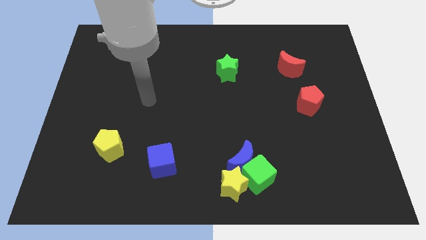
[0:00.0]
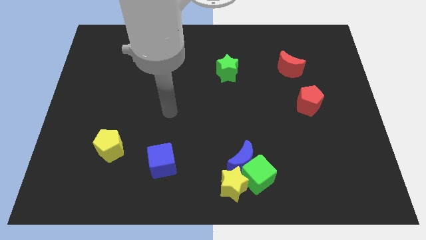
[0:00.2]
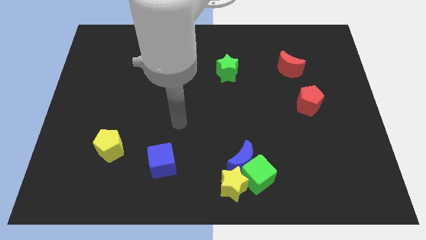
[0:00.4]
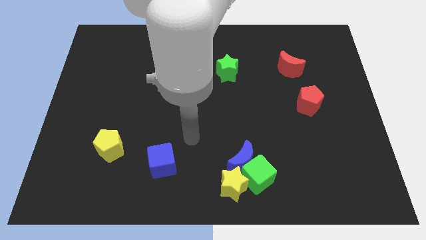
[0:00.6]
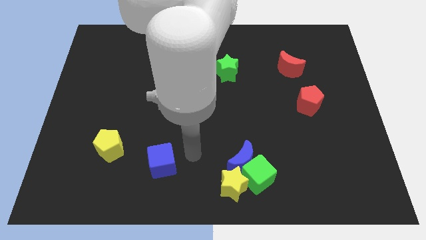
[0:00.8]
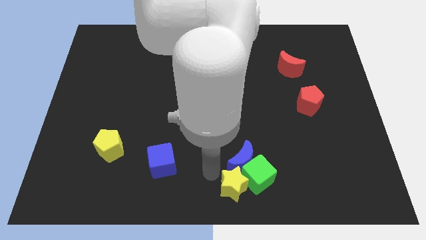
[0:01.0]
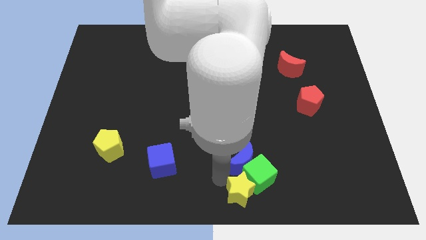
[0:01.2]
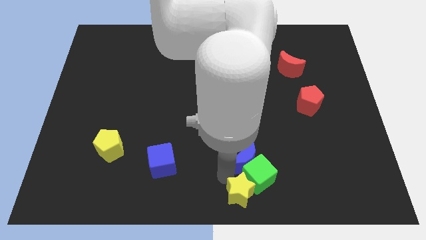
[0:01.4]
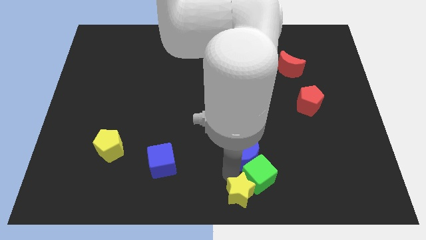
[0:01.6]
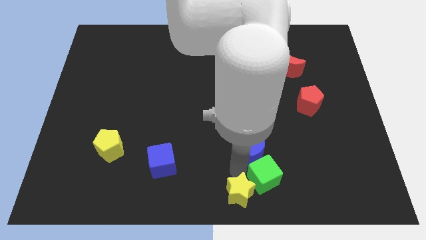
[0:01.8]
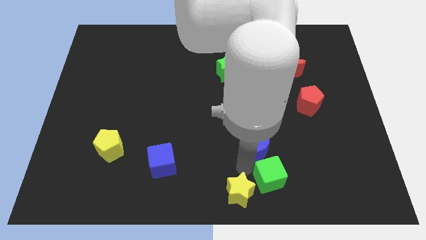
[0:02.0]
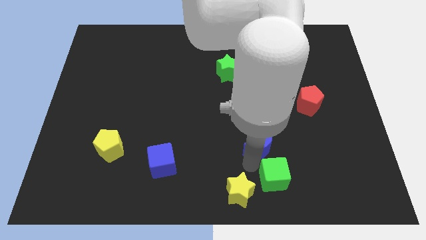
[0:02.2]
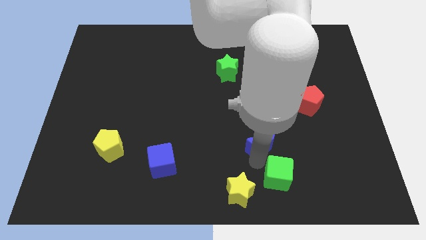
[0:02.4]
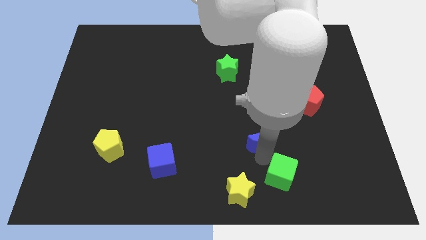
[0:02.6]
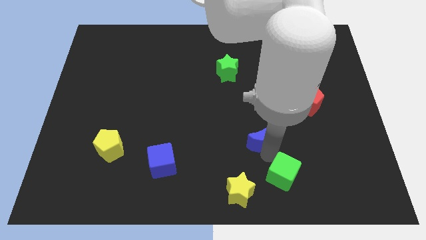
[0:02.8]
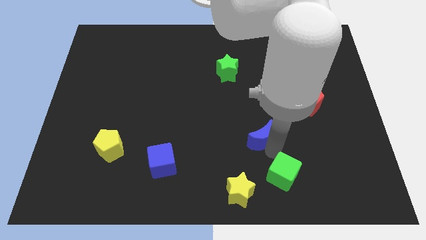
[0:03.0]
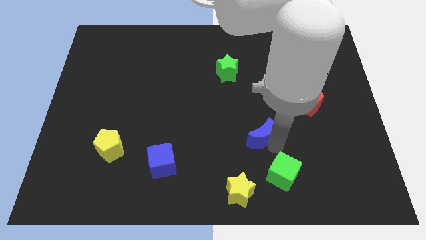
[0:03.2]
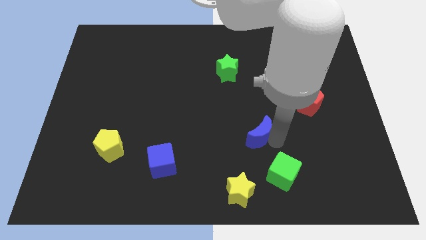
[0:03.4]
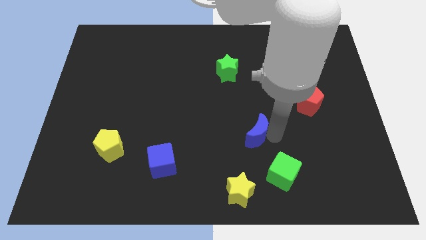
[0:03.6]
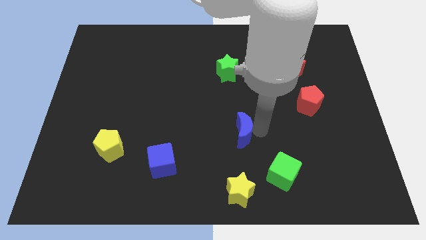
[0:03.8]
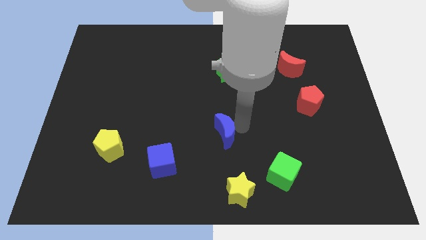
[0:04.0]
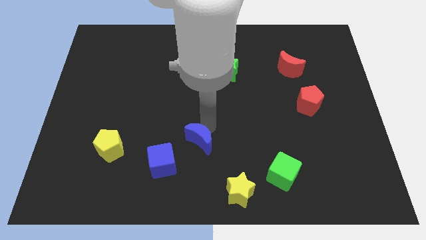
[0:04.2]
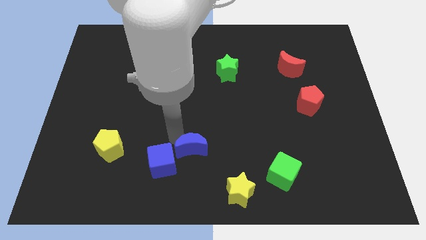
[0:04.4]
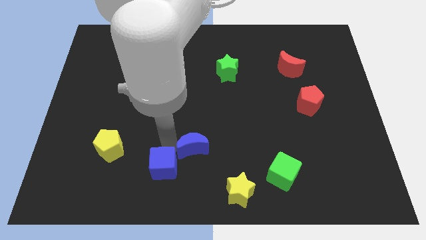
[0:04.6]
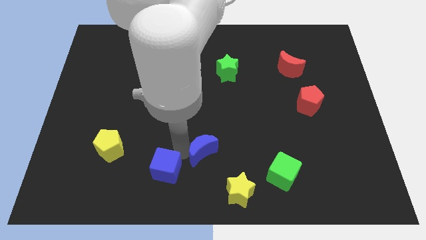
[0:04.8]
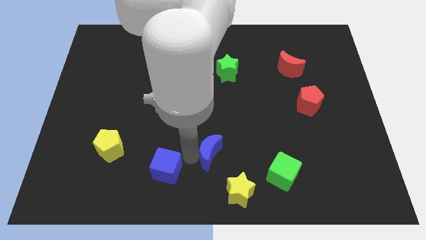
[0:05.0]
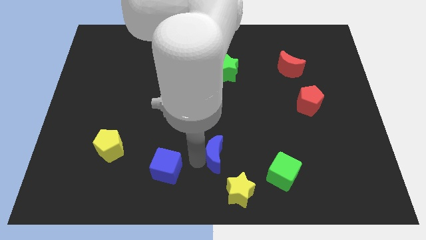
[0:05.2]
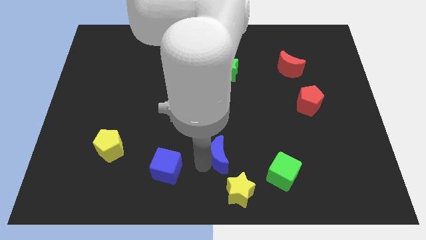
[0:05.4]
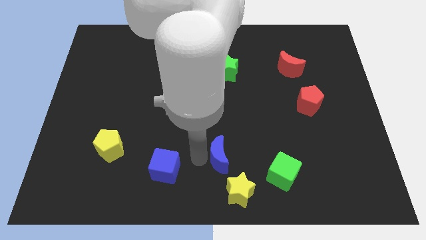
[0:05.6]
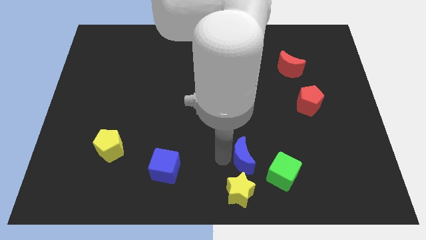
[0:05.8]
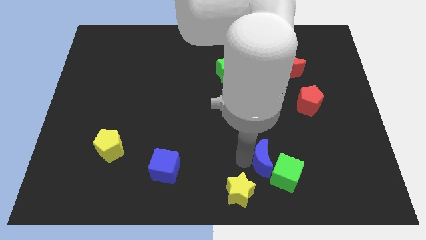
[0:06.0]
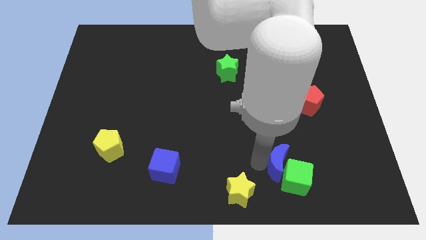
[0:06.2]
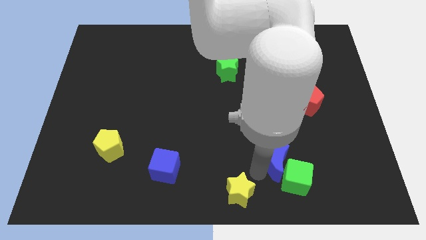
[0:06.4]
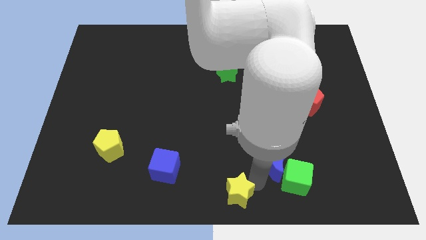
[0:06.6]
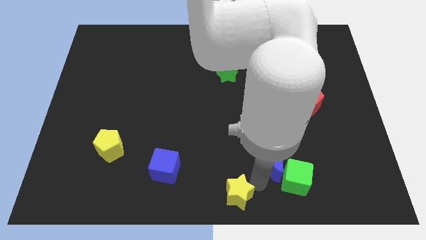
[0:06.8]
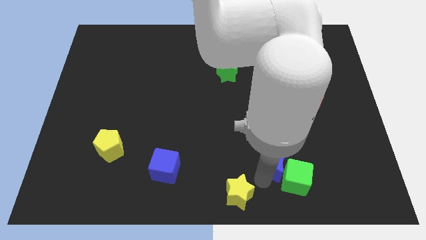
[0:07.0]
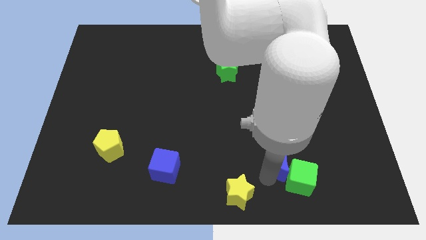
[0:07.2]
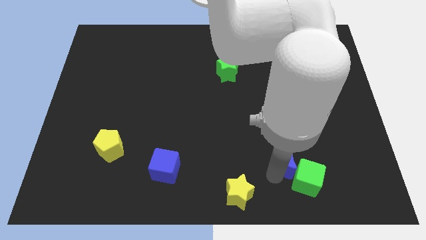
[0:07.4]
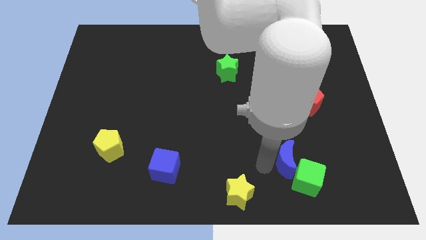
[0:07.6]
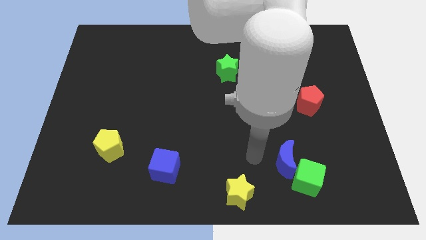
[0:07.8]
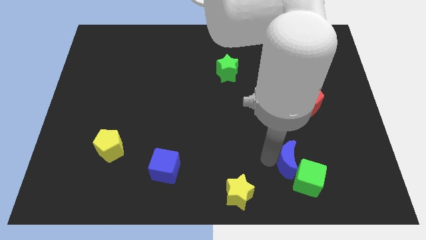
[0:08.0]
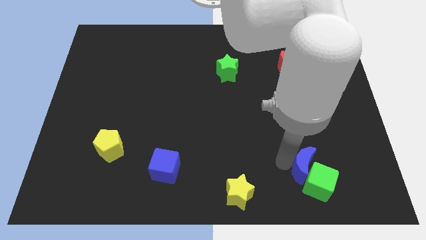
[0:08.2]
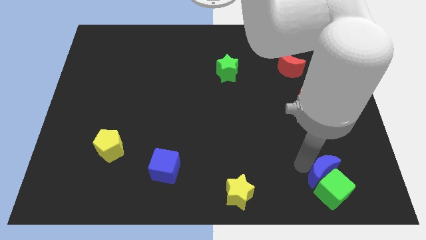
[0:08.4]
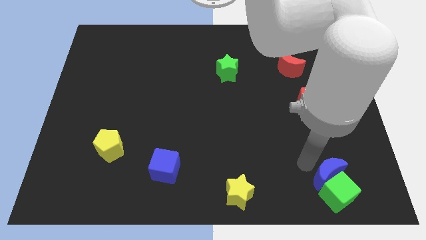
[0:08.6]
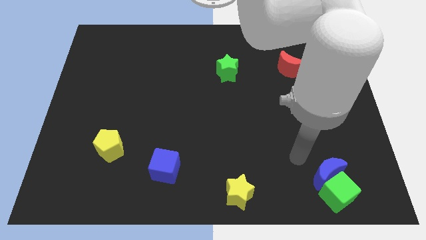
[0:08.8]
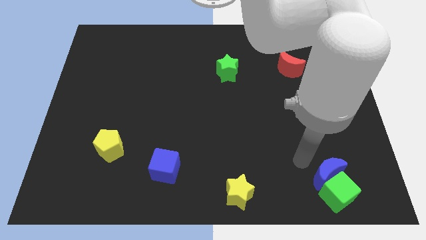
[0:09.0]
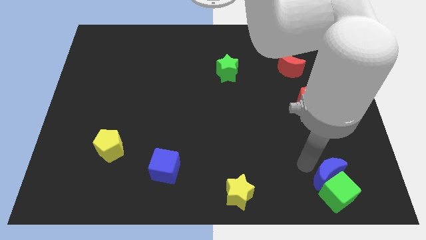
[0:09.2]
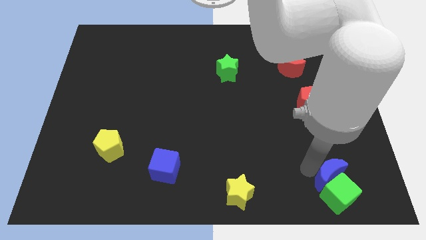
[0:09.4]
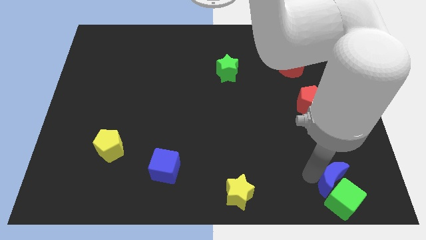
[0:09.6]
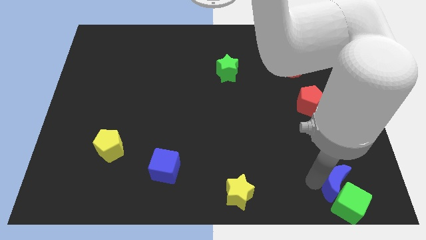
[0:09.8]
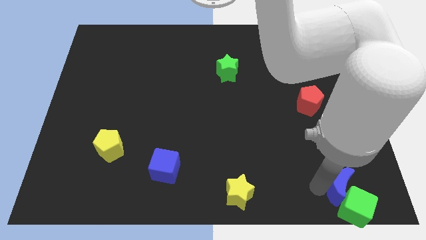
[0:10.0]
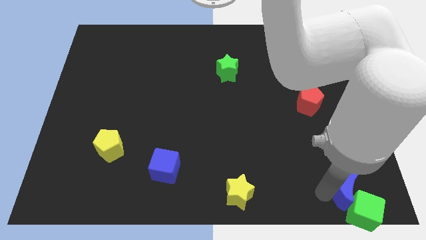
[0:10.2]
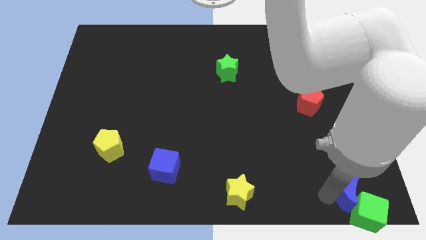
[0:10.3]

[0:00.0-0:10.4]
move the blue moon to the lower right corner

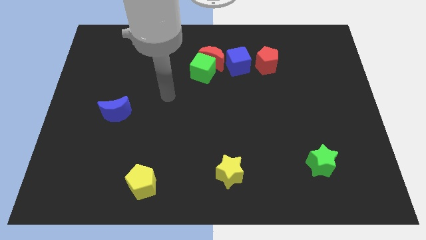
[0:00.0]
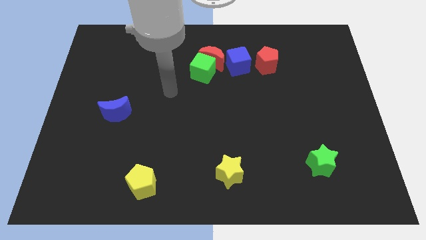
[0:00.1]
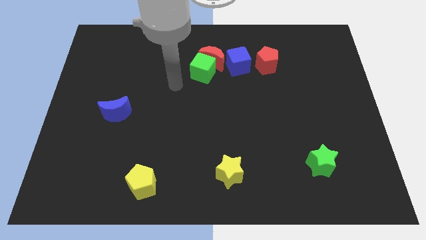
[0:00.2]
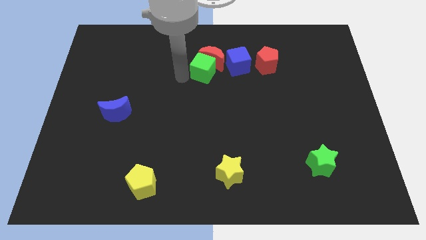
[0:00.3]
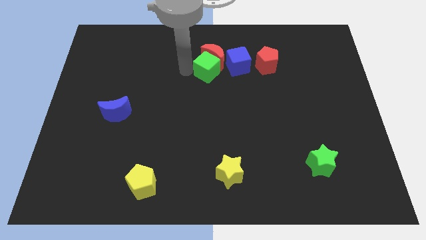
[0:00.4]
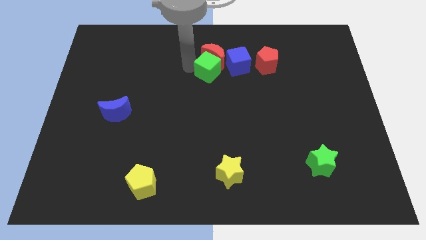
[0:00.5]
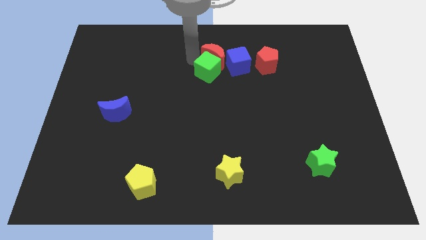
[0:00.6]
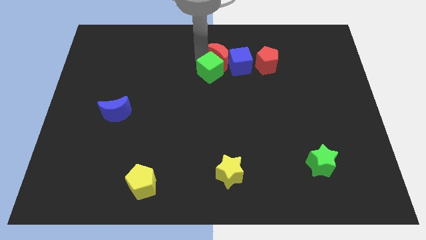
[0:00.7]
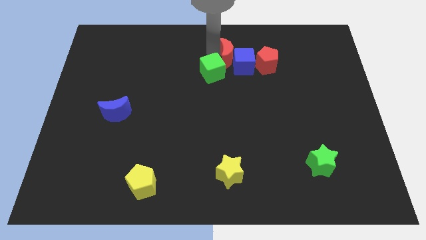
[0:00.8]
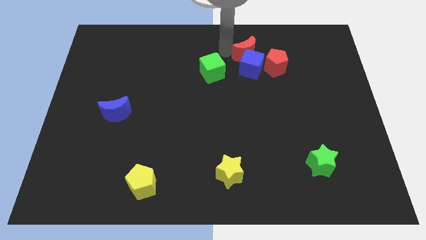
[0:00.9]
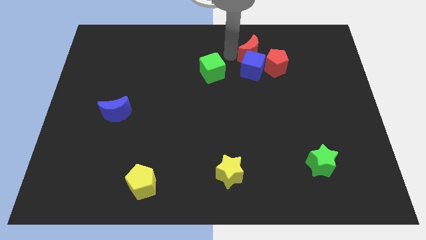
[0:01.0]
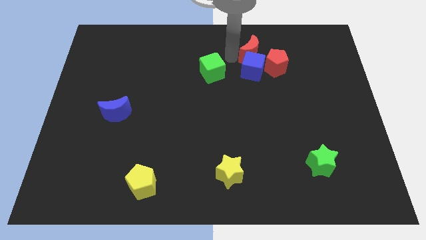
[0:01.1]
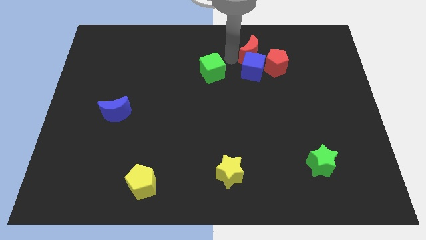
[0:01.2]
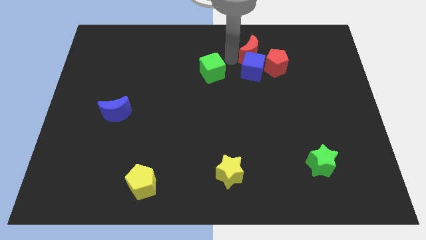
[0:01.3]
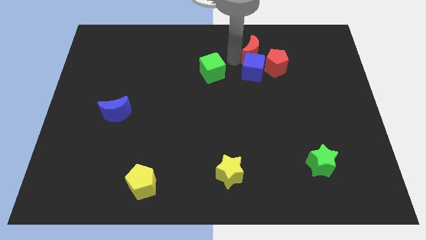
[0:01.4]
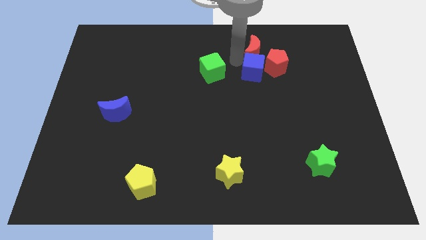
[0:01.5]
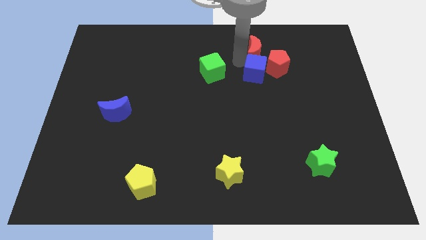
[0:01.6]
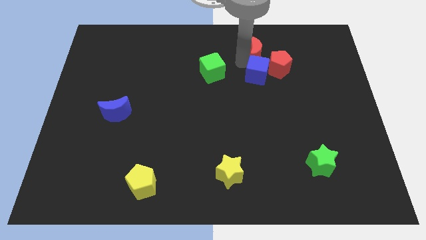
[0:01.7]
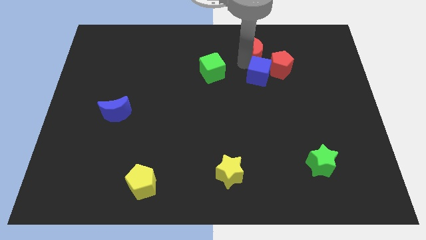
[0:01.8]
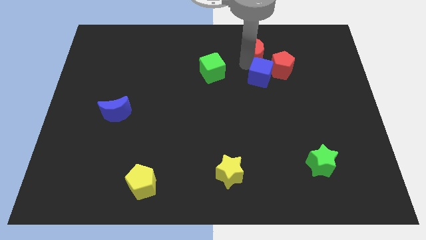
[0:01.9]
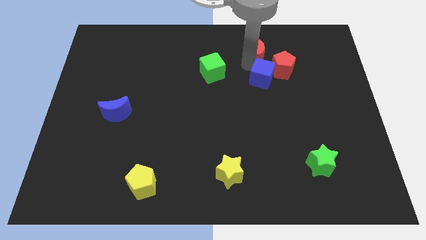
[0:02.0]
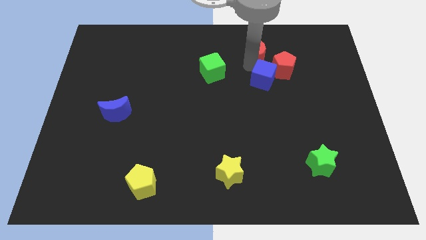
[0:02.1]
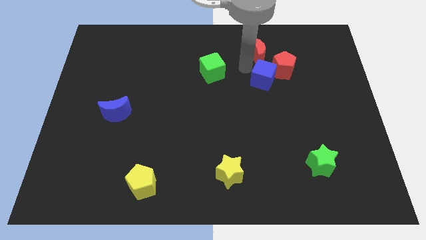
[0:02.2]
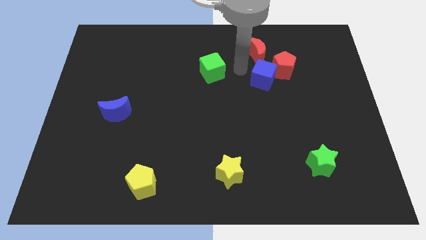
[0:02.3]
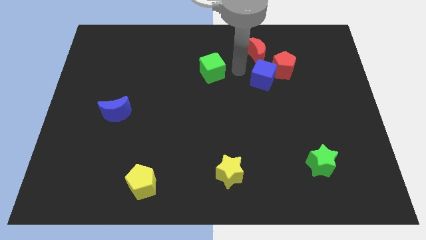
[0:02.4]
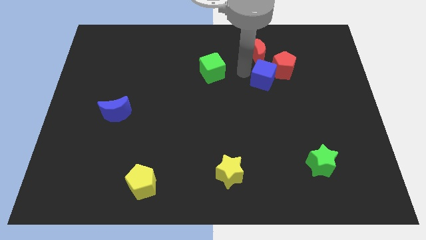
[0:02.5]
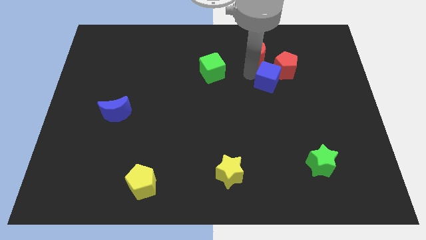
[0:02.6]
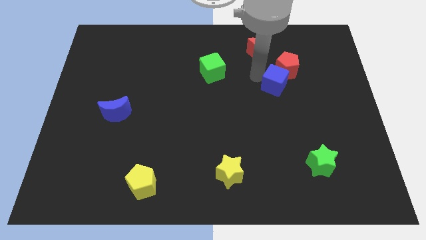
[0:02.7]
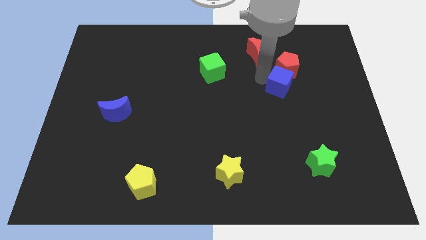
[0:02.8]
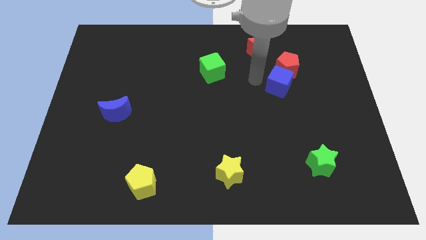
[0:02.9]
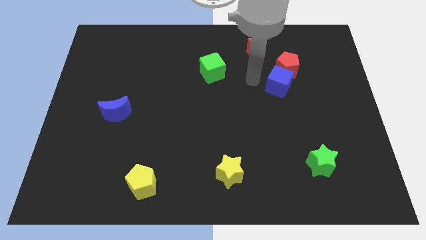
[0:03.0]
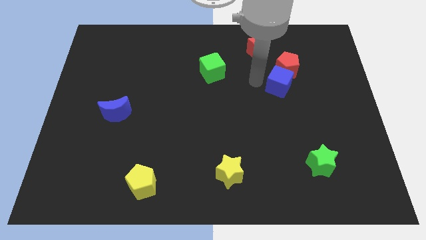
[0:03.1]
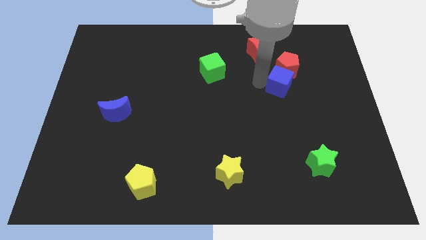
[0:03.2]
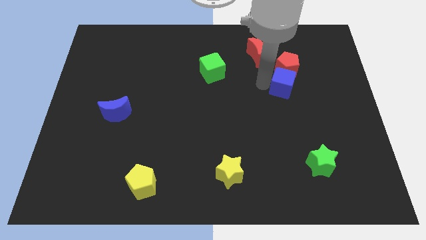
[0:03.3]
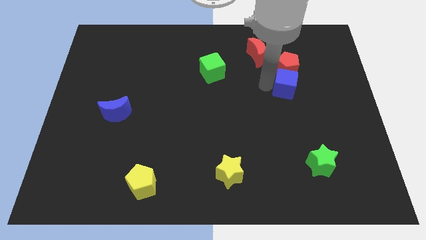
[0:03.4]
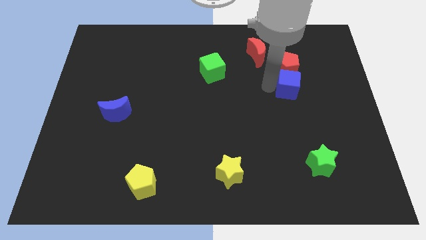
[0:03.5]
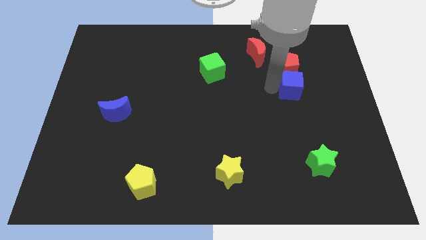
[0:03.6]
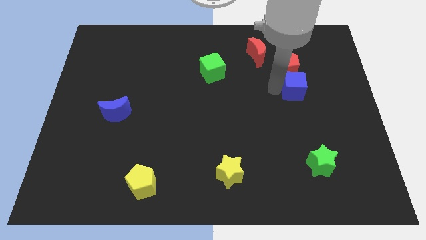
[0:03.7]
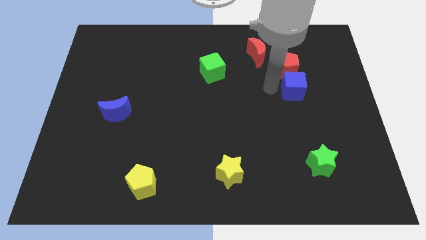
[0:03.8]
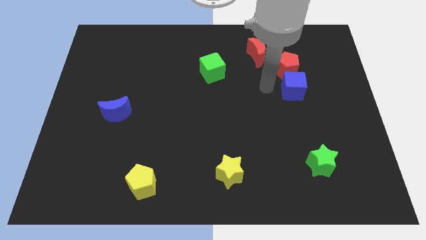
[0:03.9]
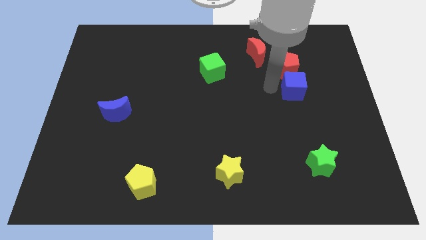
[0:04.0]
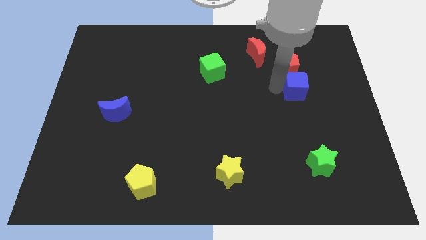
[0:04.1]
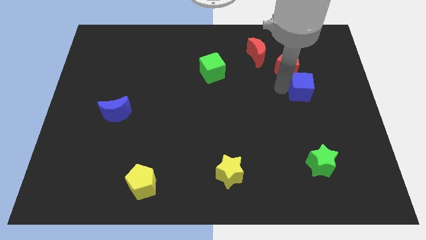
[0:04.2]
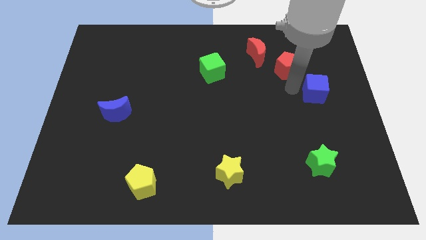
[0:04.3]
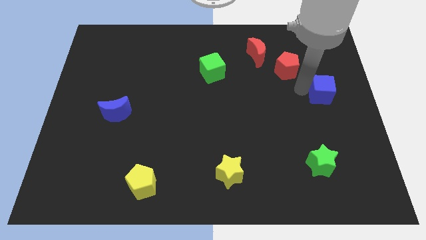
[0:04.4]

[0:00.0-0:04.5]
put the blue cube to the right side
